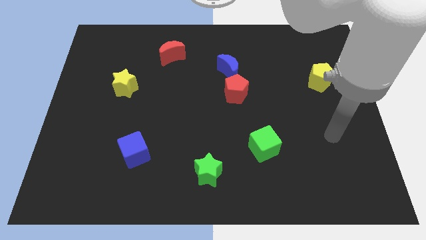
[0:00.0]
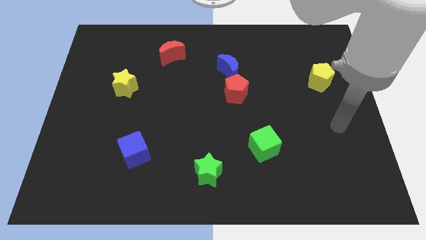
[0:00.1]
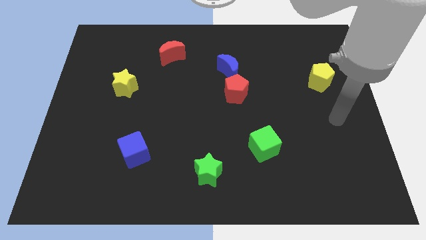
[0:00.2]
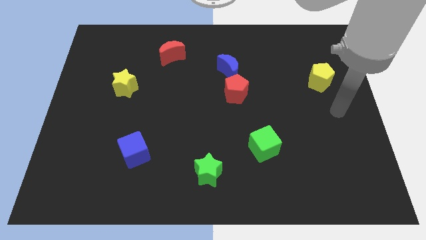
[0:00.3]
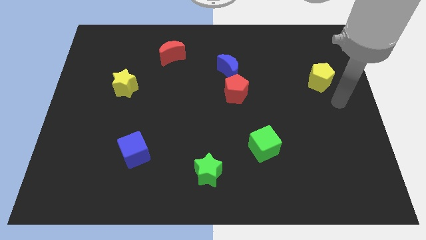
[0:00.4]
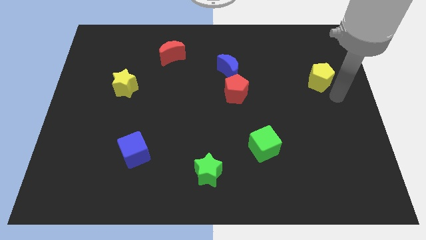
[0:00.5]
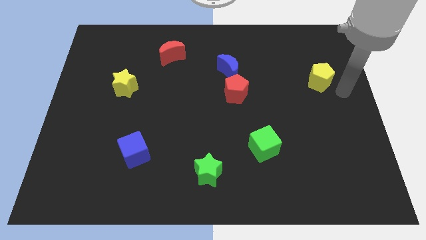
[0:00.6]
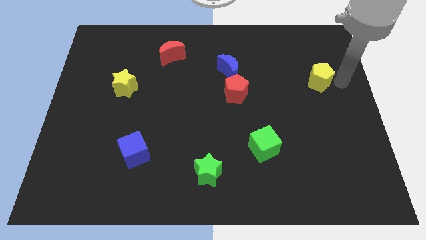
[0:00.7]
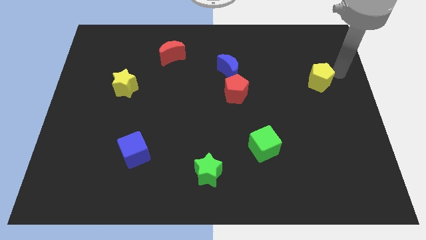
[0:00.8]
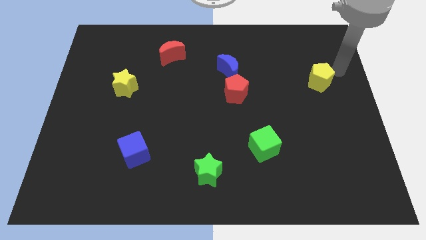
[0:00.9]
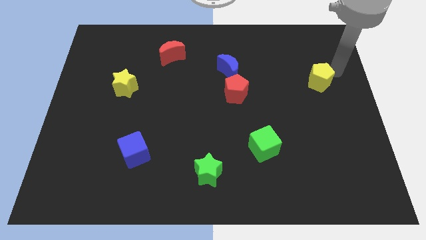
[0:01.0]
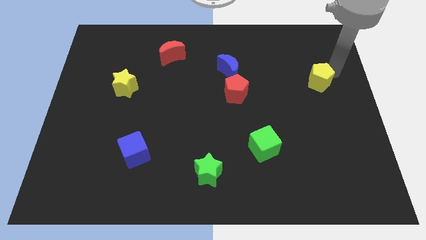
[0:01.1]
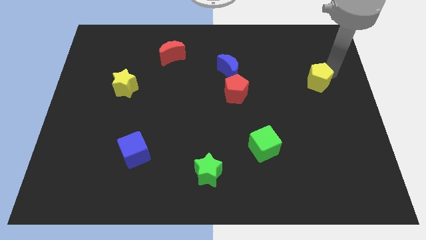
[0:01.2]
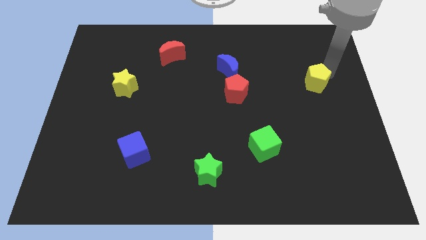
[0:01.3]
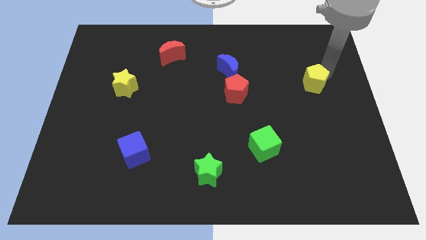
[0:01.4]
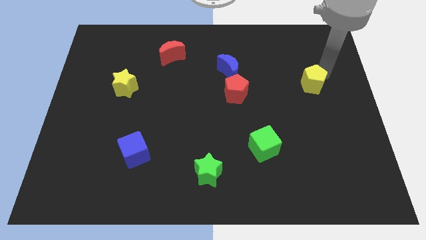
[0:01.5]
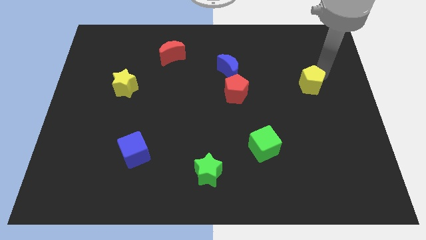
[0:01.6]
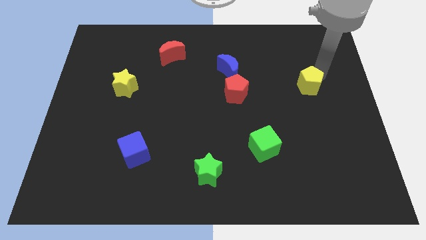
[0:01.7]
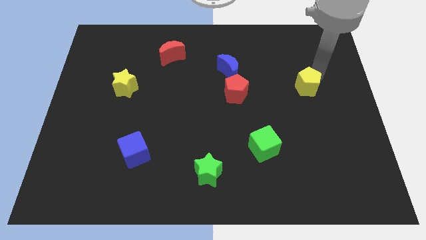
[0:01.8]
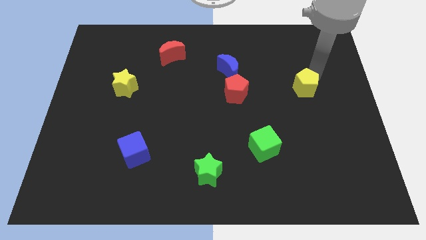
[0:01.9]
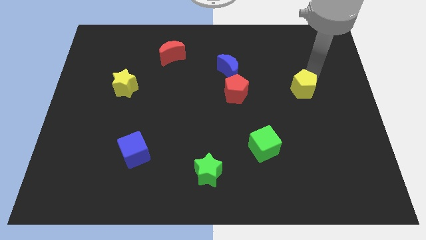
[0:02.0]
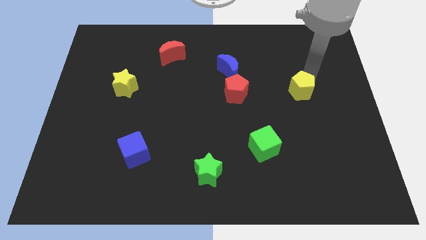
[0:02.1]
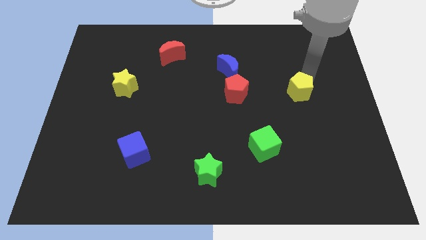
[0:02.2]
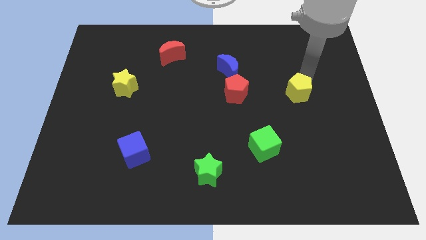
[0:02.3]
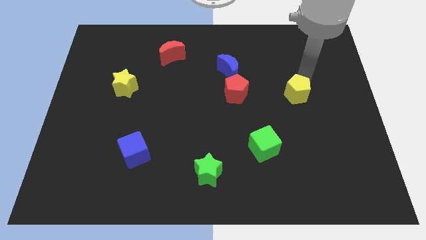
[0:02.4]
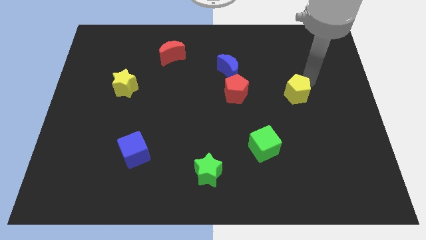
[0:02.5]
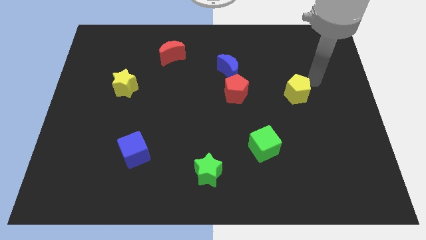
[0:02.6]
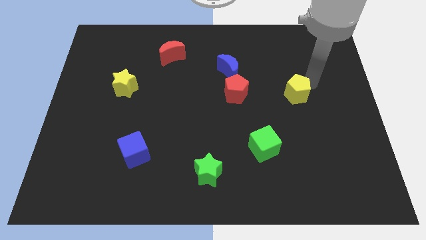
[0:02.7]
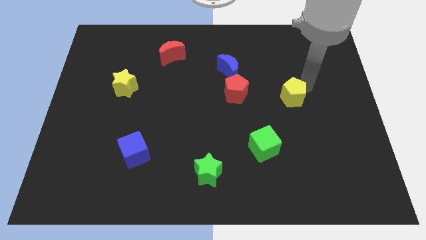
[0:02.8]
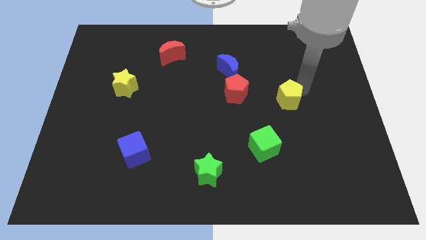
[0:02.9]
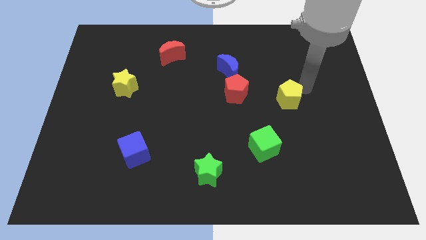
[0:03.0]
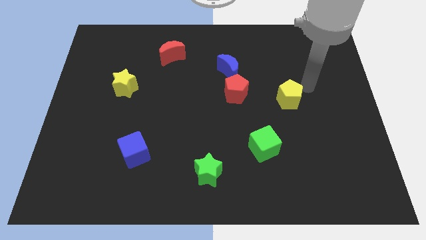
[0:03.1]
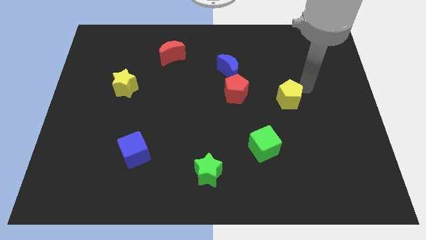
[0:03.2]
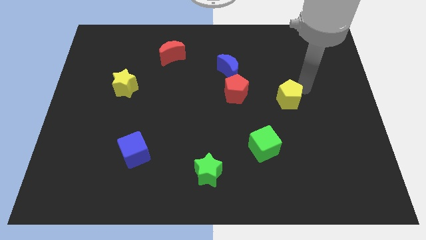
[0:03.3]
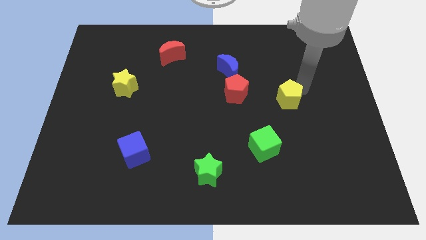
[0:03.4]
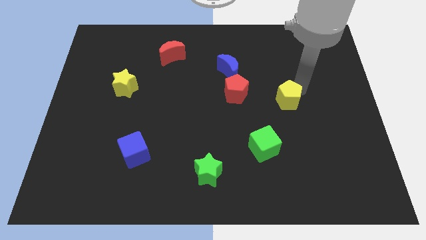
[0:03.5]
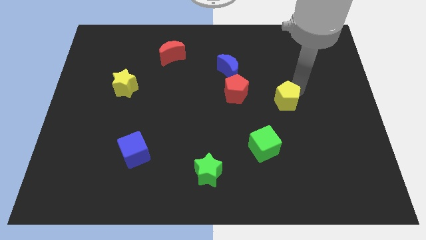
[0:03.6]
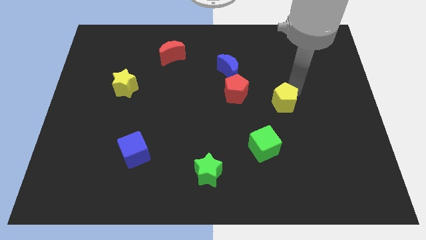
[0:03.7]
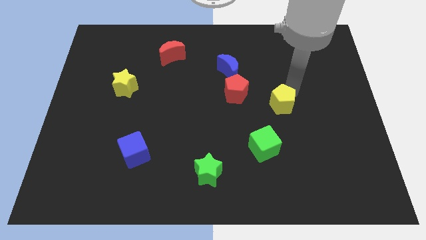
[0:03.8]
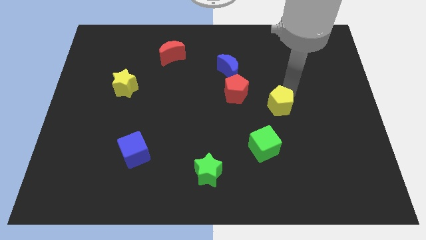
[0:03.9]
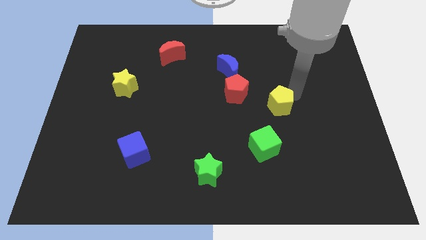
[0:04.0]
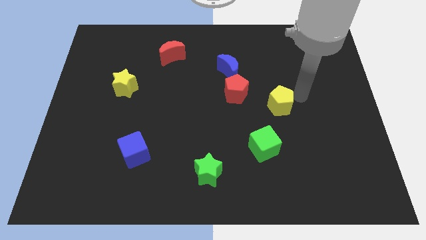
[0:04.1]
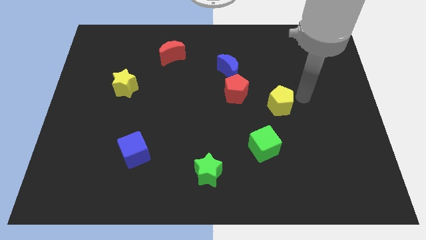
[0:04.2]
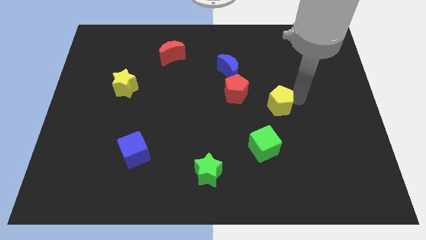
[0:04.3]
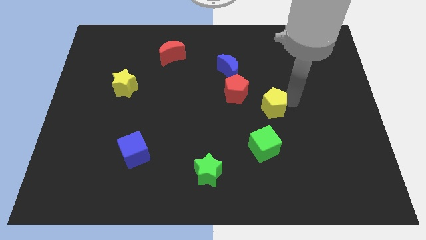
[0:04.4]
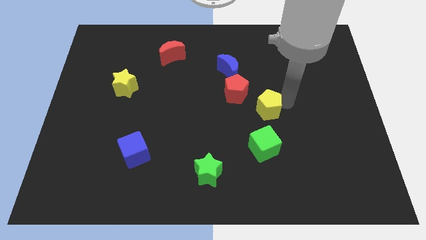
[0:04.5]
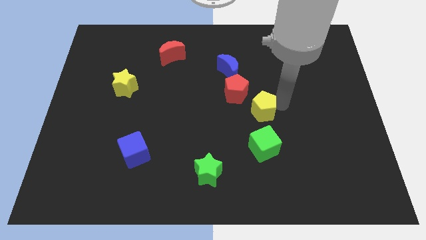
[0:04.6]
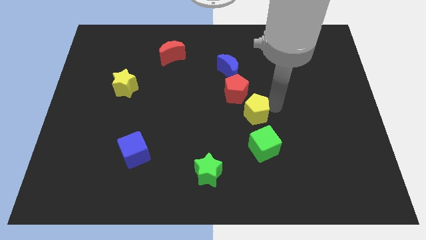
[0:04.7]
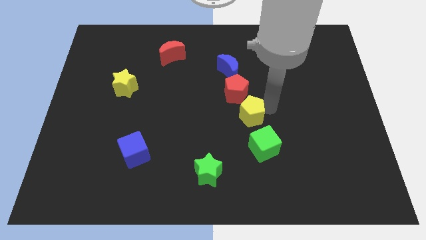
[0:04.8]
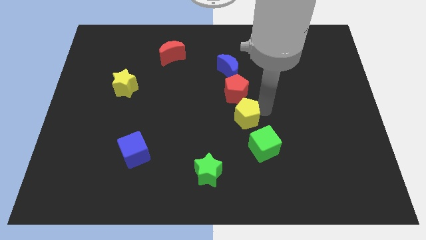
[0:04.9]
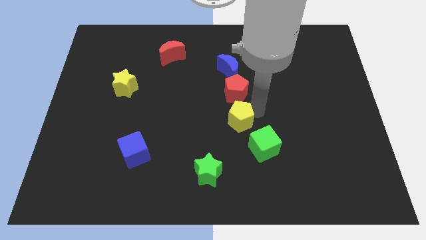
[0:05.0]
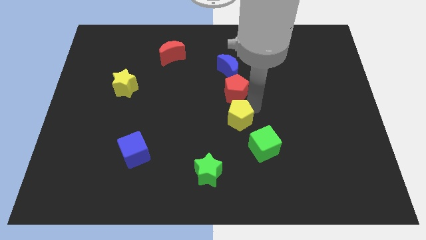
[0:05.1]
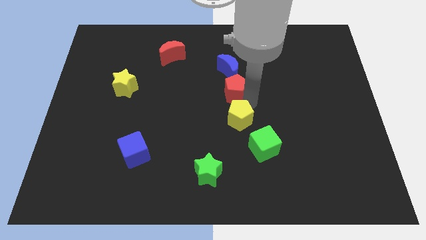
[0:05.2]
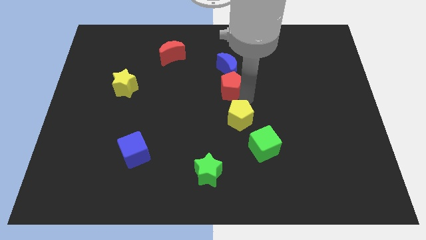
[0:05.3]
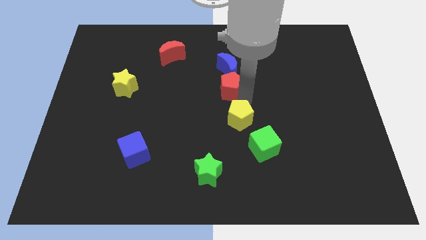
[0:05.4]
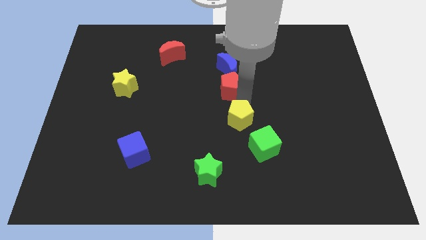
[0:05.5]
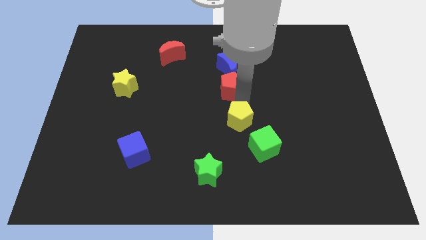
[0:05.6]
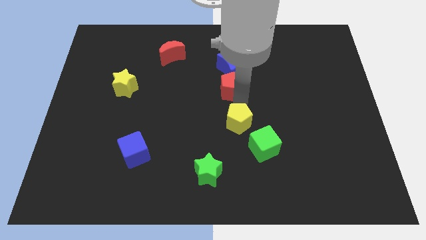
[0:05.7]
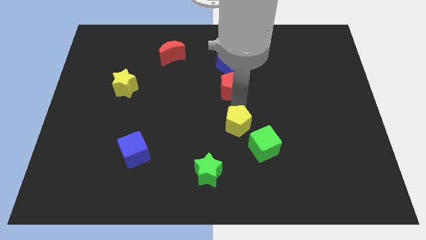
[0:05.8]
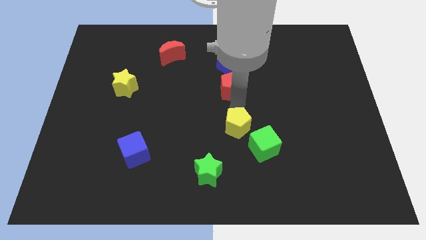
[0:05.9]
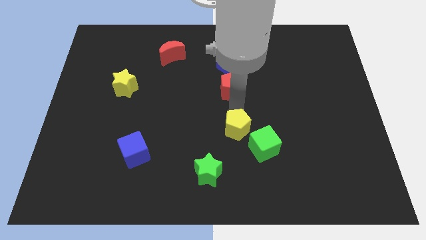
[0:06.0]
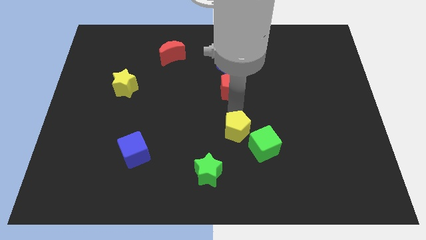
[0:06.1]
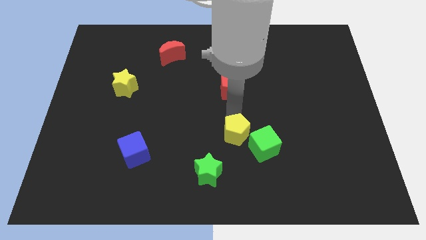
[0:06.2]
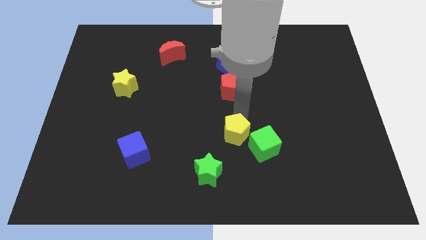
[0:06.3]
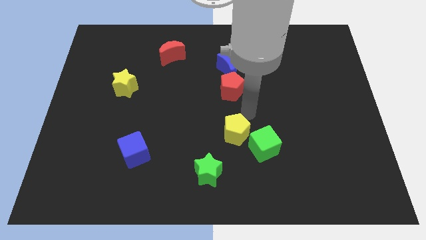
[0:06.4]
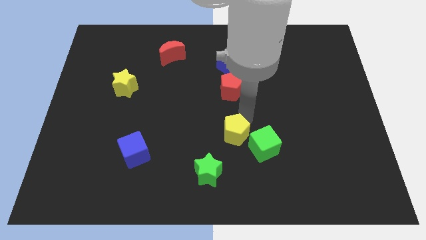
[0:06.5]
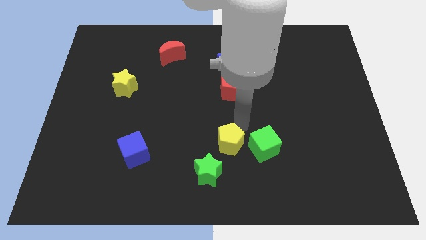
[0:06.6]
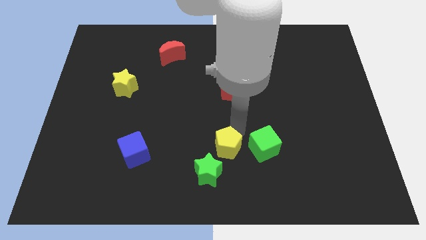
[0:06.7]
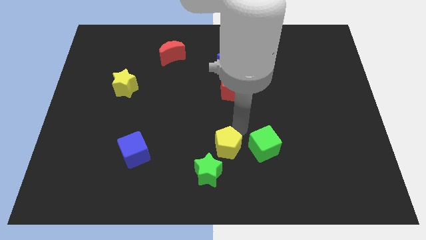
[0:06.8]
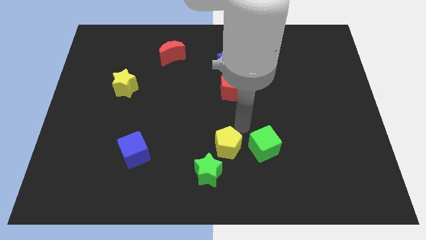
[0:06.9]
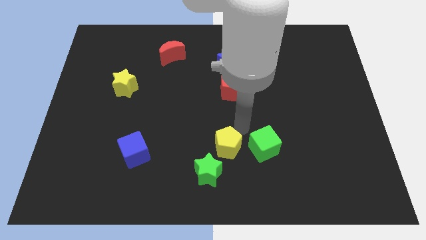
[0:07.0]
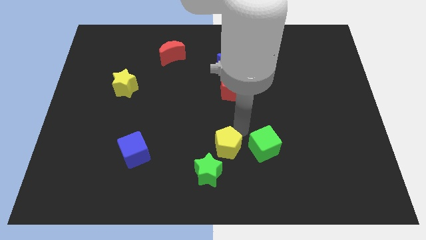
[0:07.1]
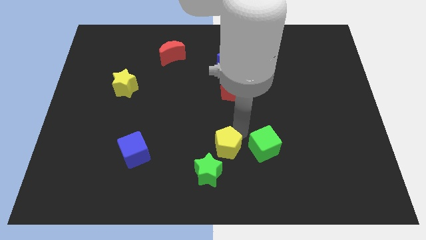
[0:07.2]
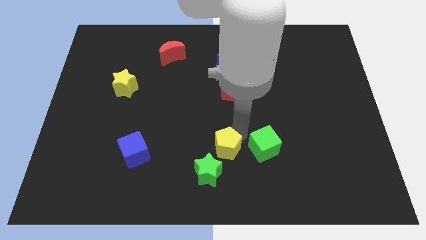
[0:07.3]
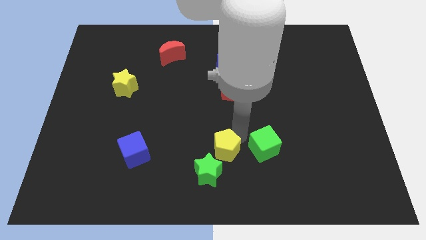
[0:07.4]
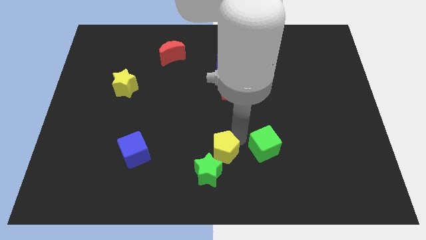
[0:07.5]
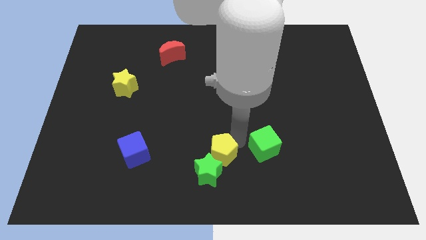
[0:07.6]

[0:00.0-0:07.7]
slide the yellow pentagon next to the green star
